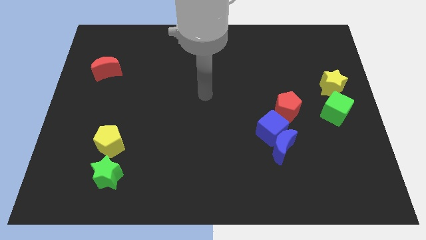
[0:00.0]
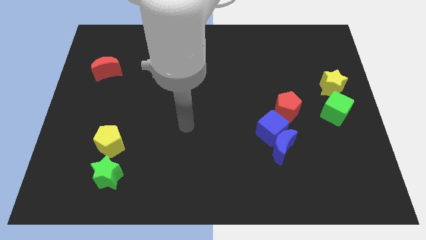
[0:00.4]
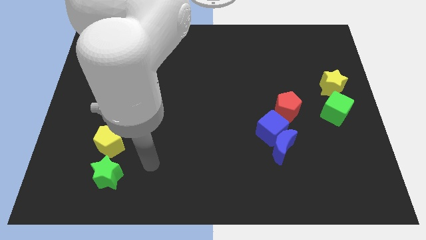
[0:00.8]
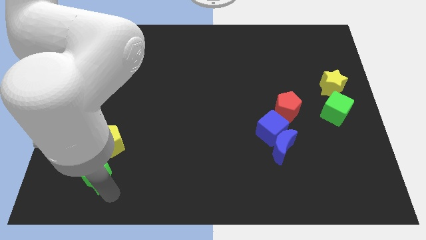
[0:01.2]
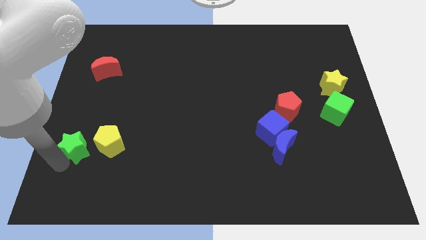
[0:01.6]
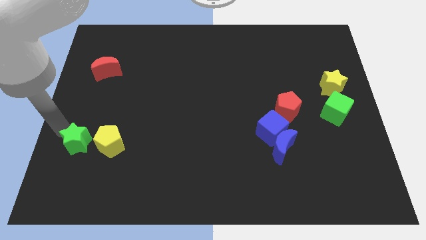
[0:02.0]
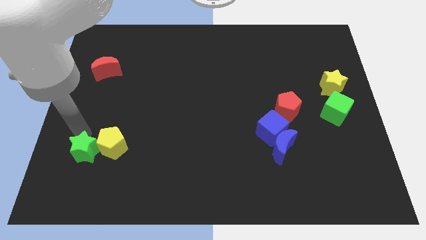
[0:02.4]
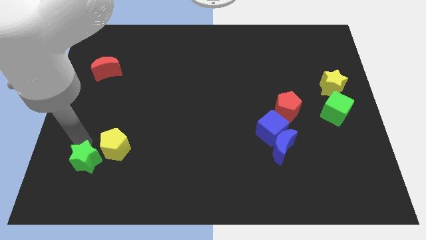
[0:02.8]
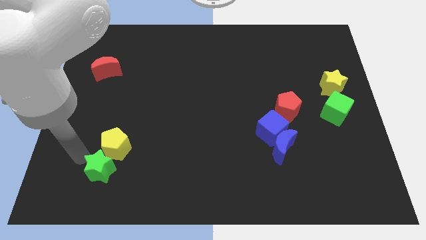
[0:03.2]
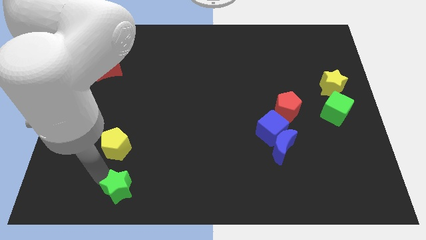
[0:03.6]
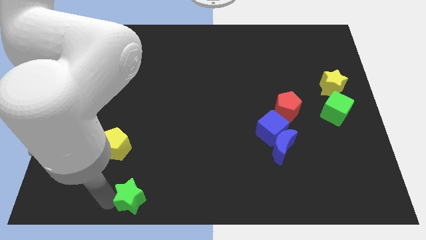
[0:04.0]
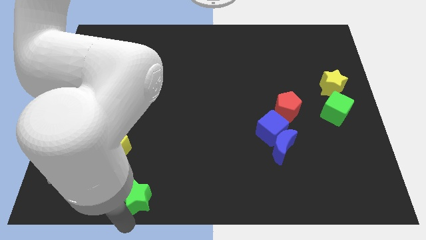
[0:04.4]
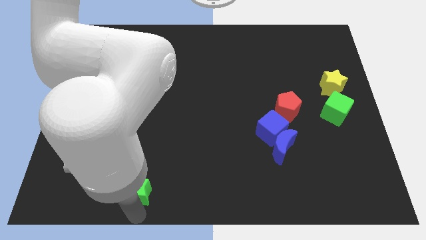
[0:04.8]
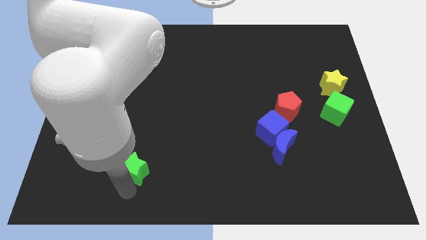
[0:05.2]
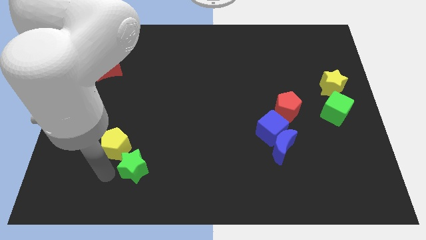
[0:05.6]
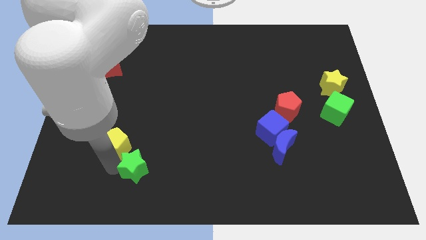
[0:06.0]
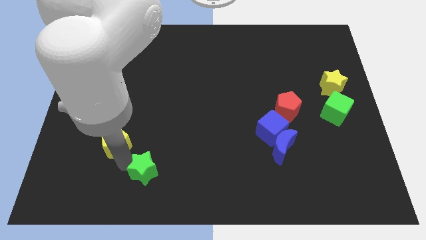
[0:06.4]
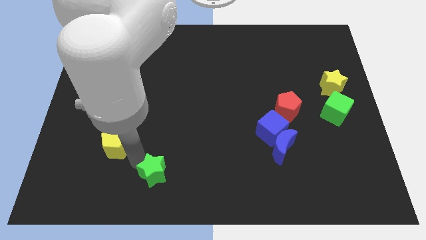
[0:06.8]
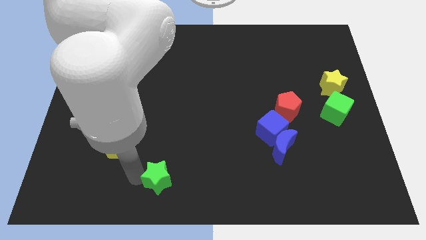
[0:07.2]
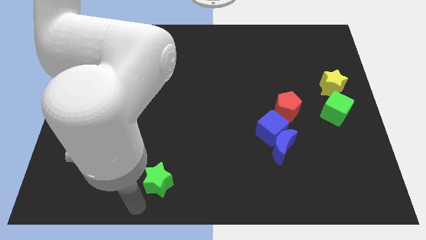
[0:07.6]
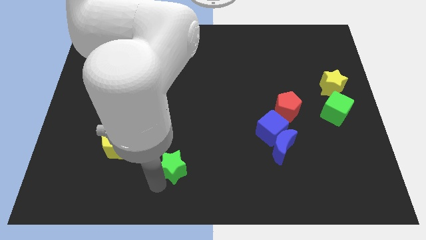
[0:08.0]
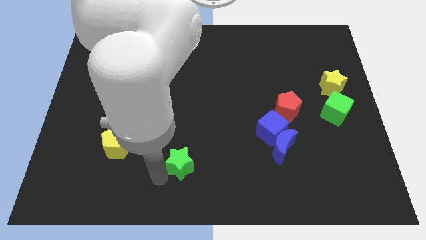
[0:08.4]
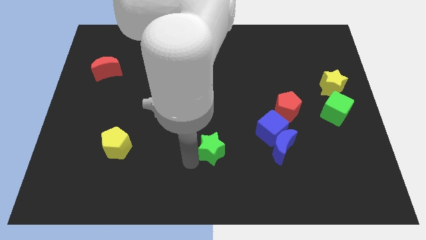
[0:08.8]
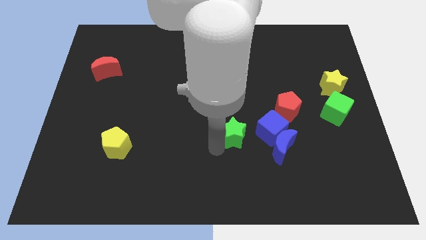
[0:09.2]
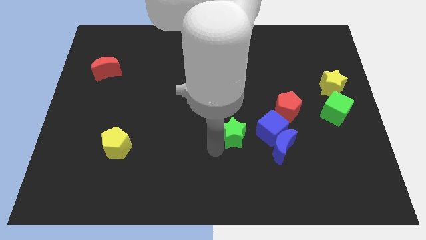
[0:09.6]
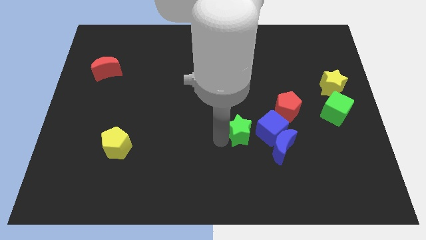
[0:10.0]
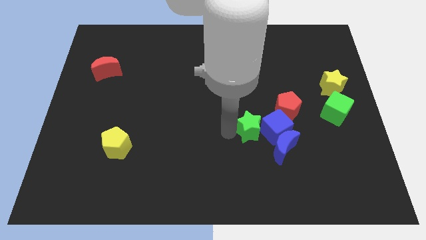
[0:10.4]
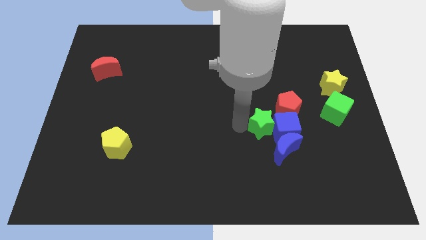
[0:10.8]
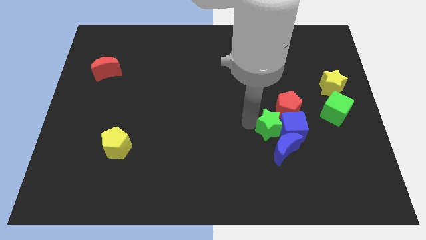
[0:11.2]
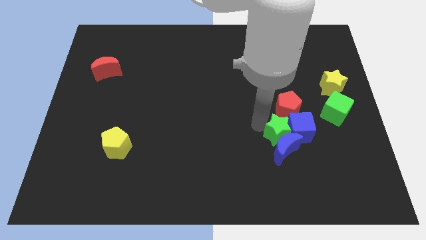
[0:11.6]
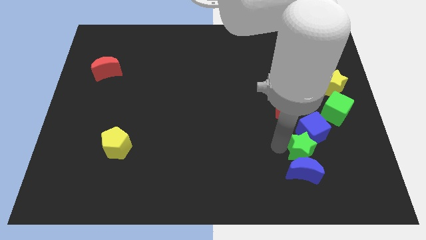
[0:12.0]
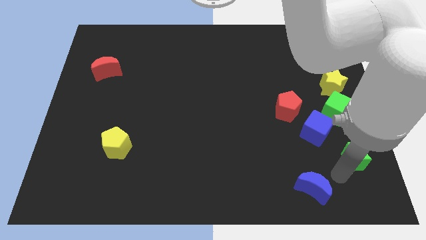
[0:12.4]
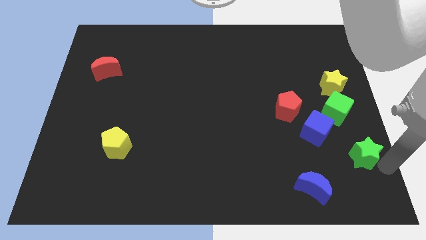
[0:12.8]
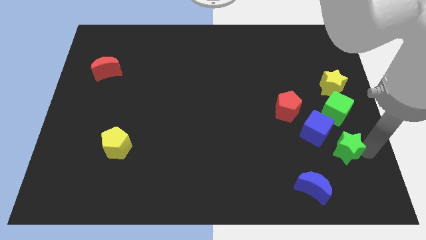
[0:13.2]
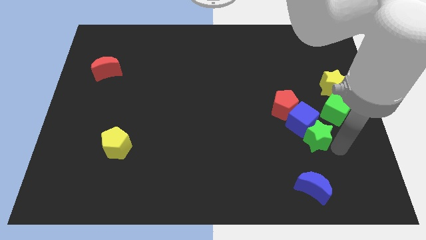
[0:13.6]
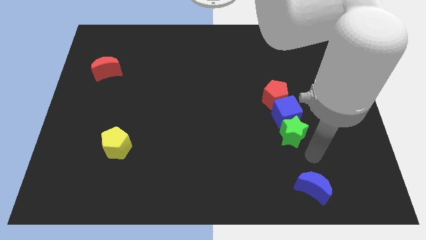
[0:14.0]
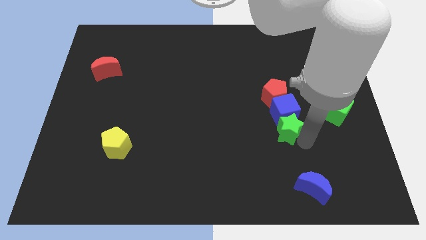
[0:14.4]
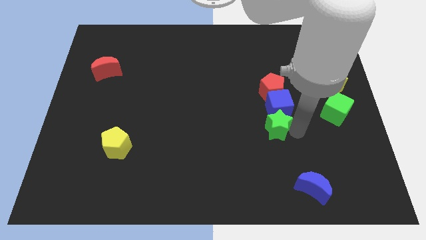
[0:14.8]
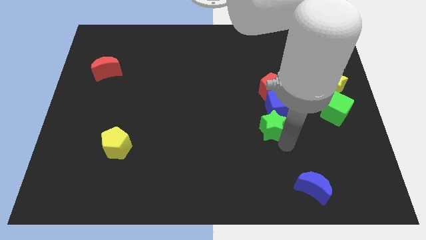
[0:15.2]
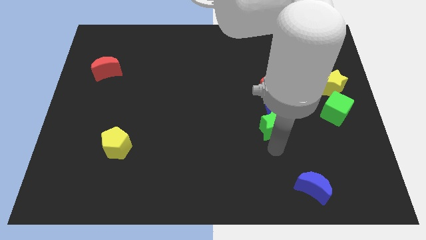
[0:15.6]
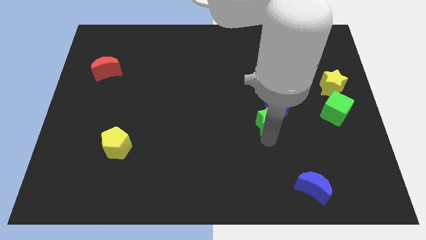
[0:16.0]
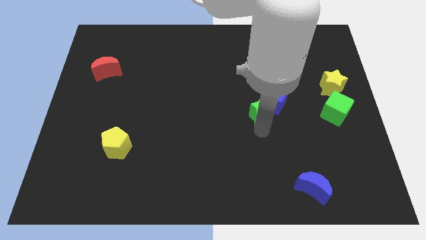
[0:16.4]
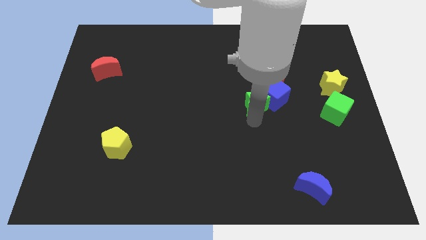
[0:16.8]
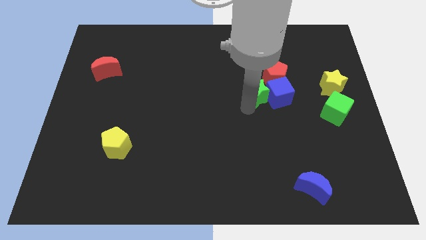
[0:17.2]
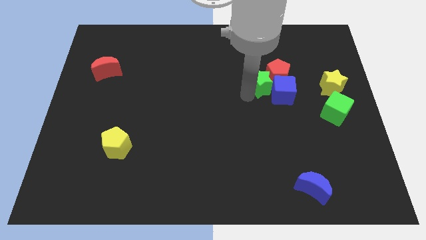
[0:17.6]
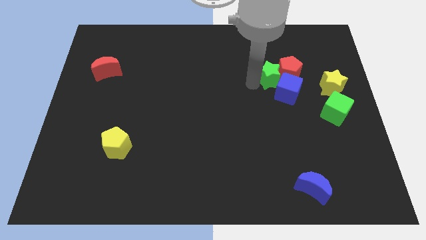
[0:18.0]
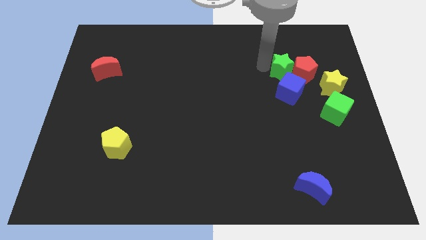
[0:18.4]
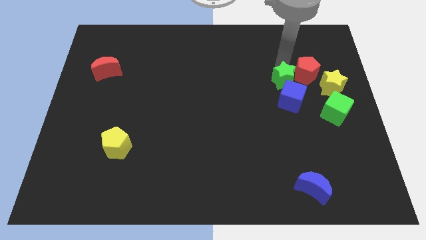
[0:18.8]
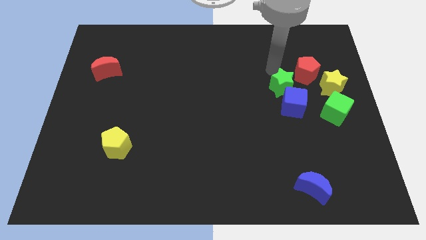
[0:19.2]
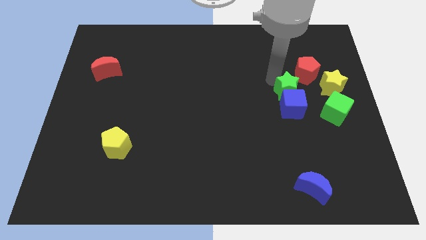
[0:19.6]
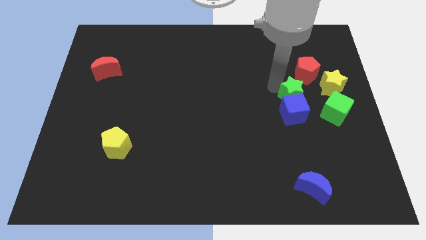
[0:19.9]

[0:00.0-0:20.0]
put the green star to the left side of the green cube

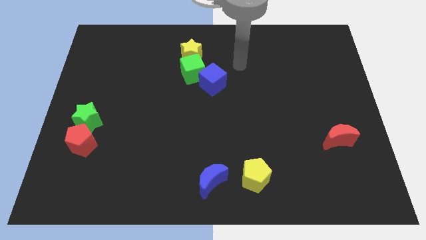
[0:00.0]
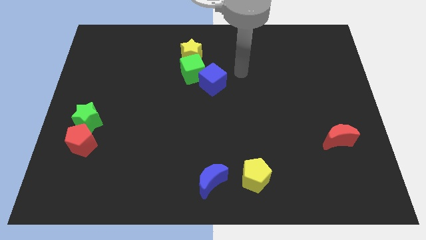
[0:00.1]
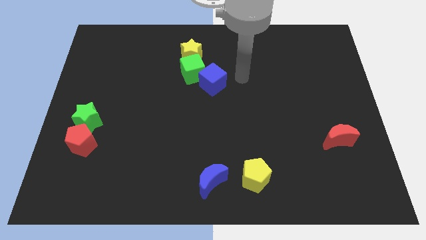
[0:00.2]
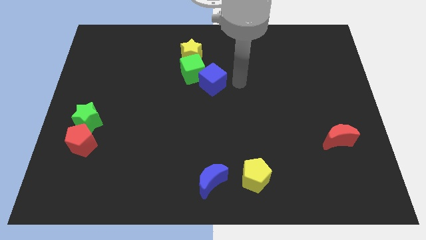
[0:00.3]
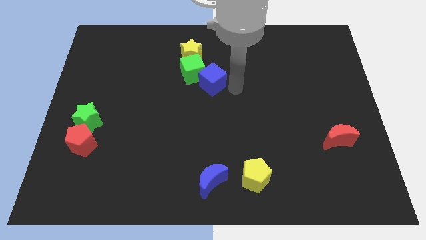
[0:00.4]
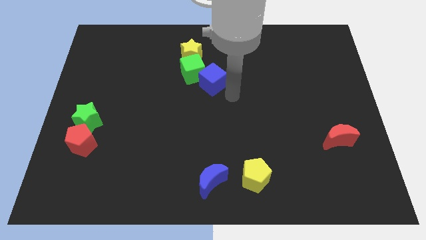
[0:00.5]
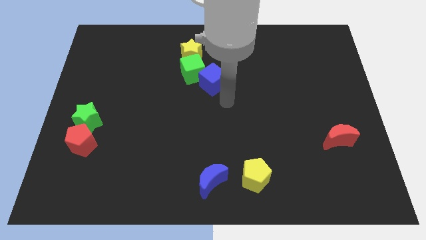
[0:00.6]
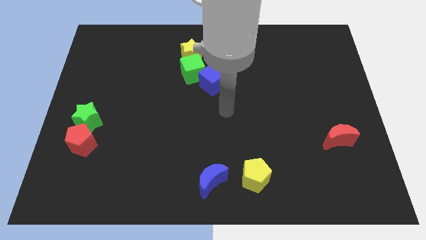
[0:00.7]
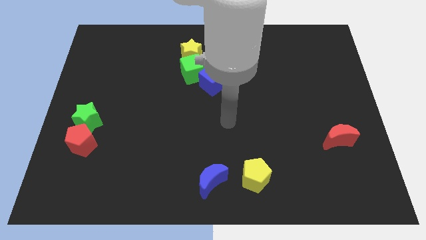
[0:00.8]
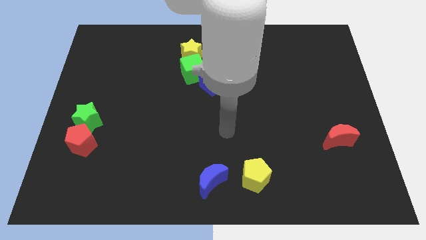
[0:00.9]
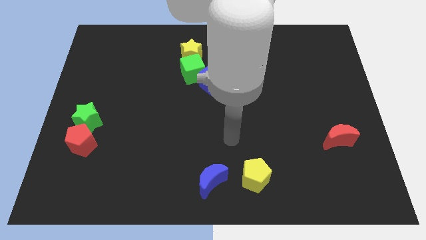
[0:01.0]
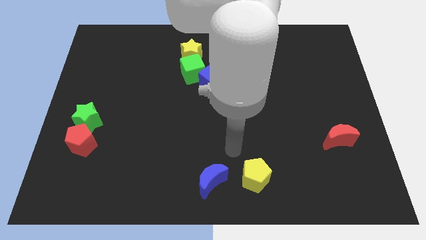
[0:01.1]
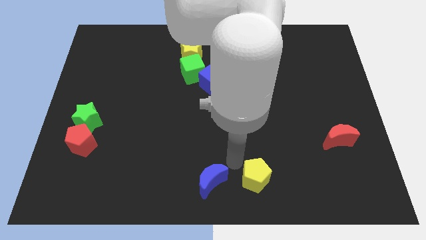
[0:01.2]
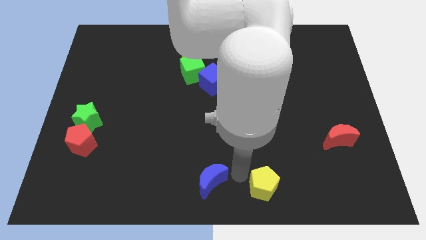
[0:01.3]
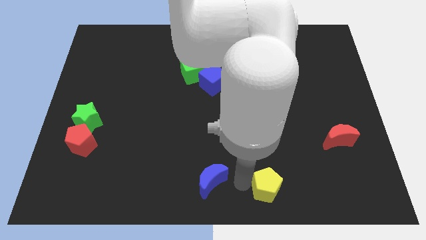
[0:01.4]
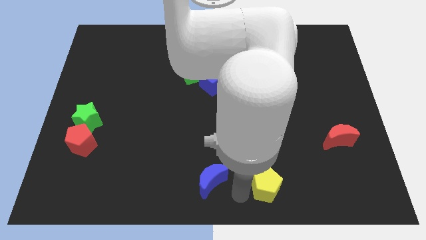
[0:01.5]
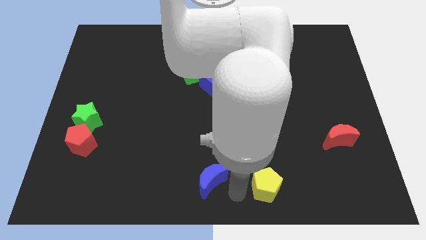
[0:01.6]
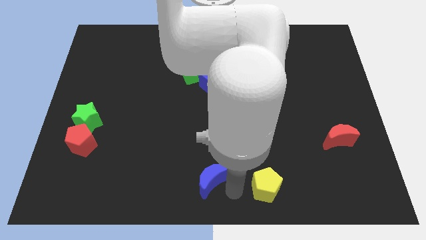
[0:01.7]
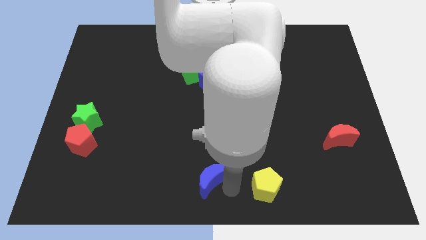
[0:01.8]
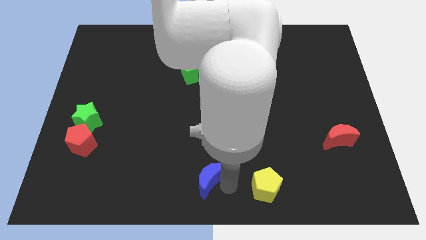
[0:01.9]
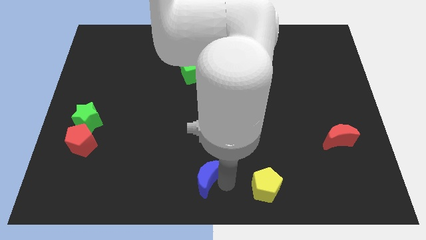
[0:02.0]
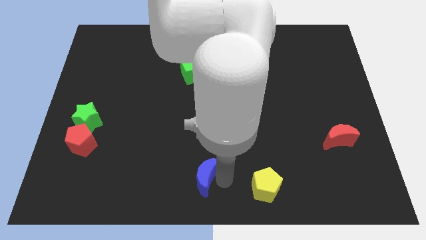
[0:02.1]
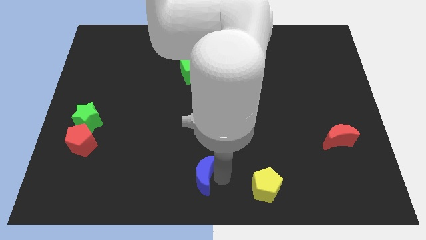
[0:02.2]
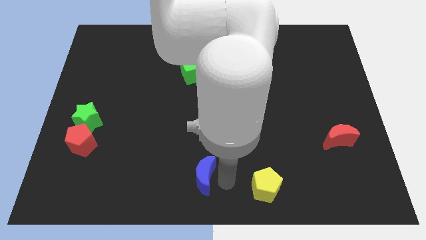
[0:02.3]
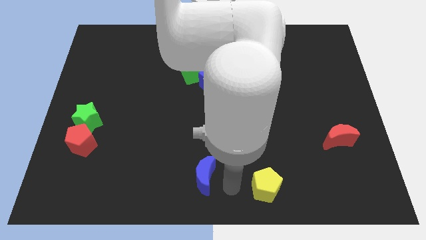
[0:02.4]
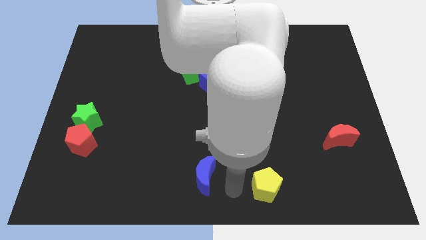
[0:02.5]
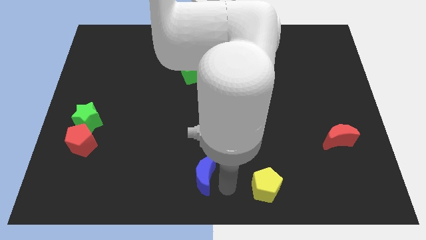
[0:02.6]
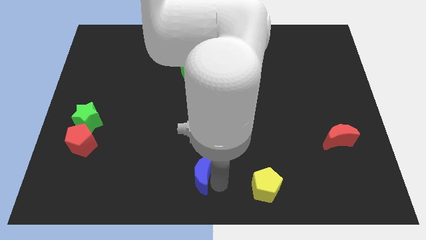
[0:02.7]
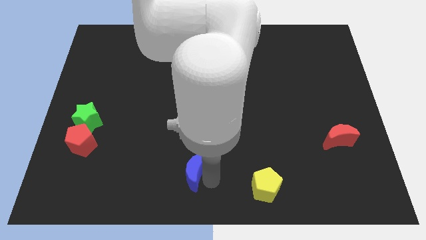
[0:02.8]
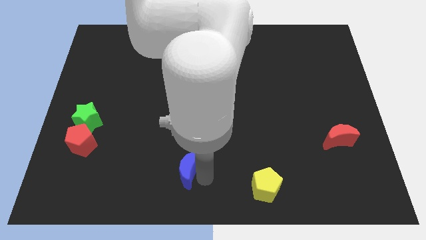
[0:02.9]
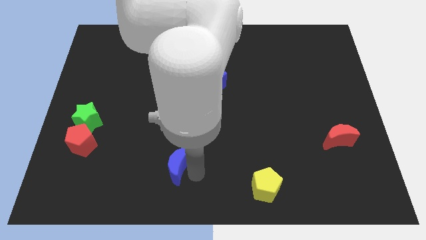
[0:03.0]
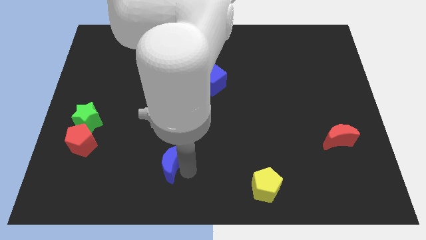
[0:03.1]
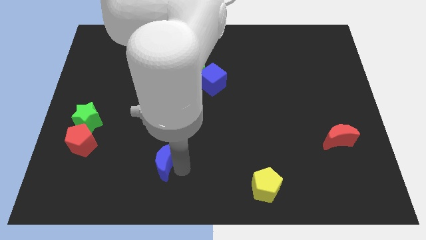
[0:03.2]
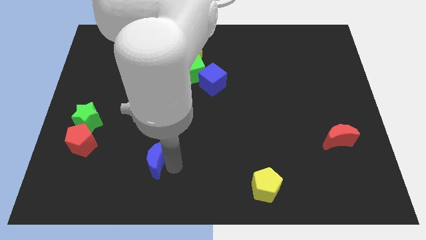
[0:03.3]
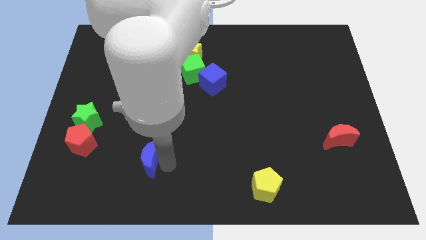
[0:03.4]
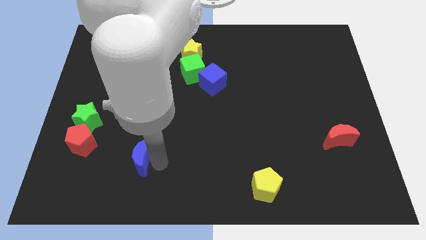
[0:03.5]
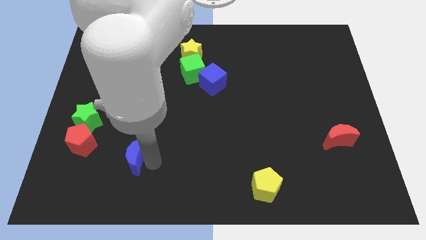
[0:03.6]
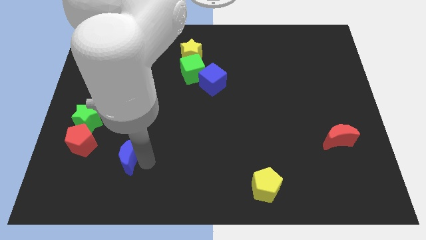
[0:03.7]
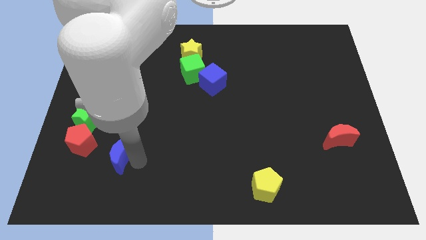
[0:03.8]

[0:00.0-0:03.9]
slide the blue moon diagonally down and to the right of the green star
